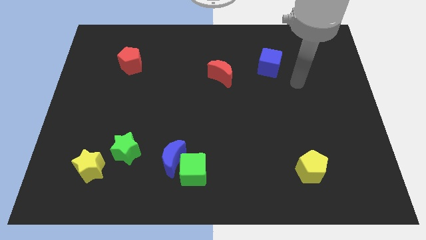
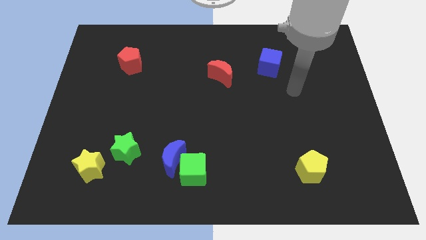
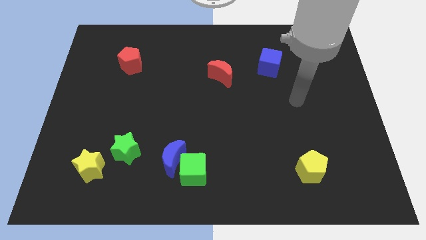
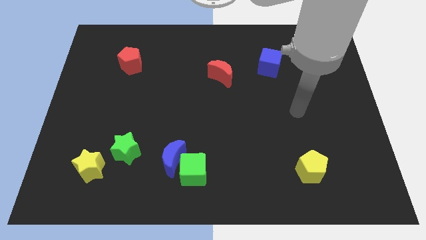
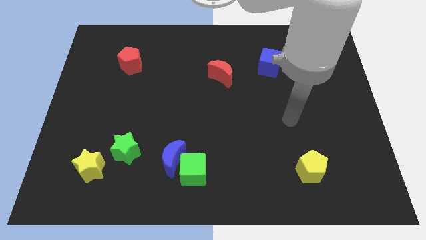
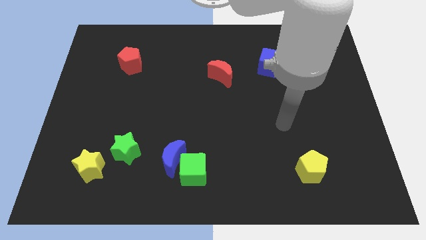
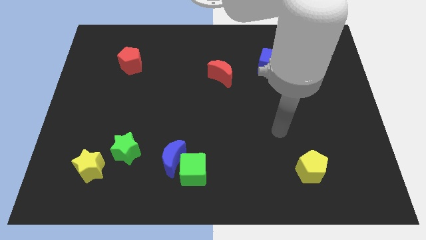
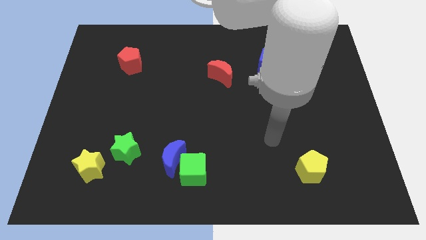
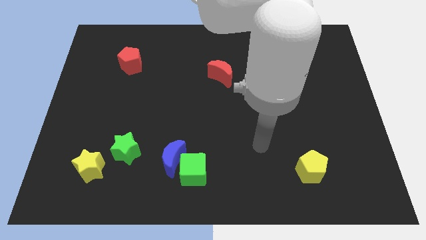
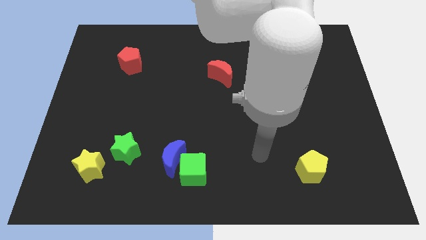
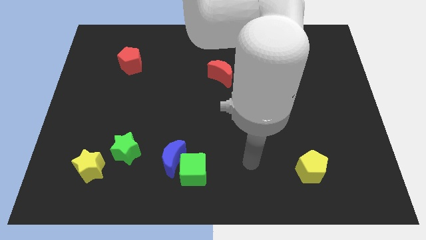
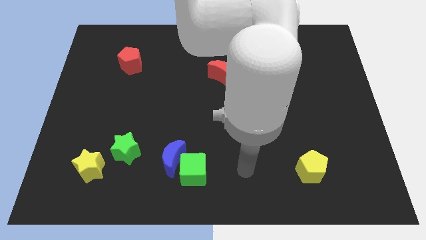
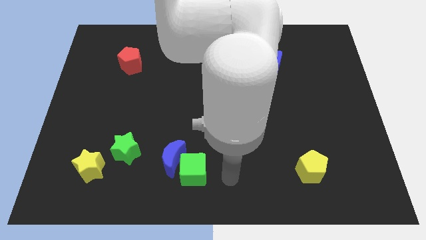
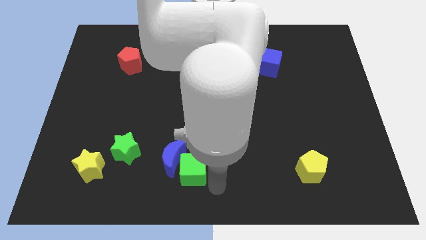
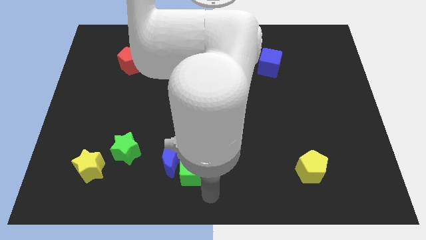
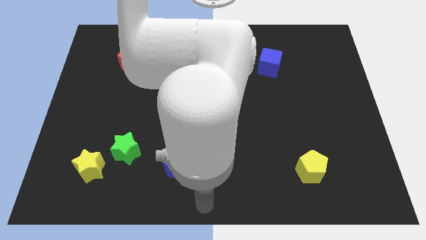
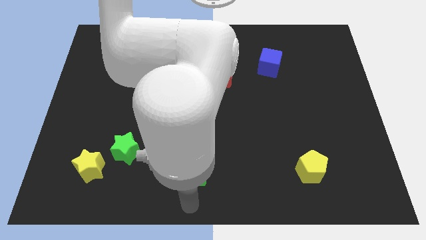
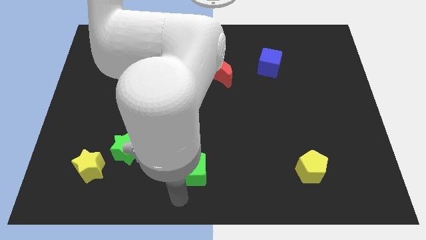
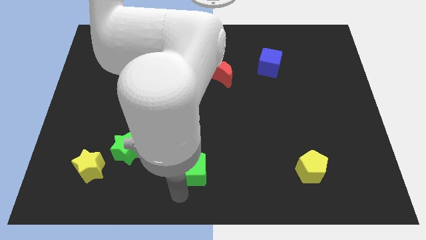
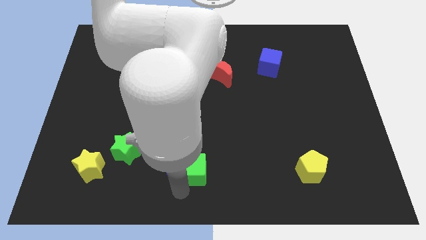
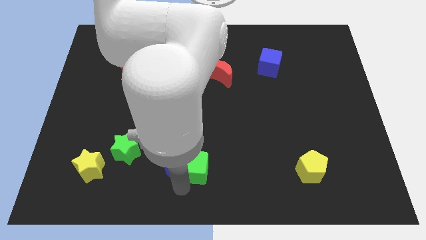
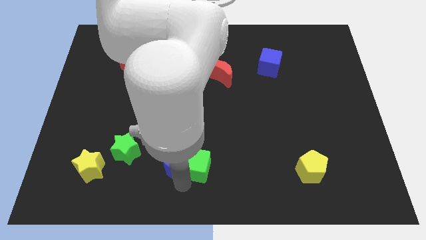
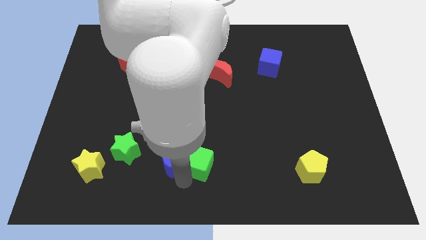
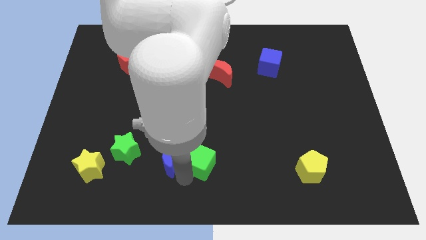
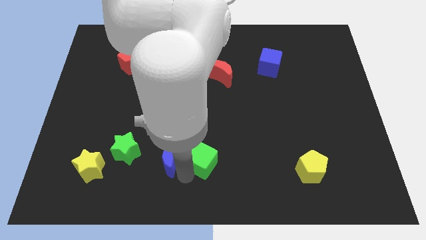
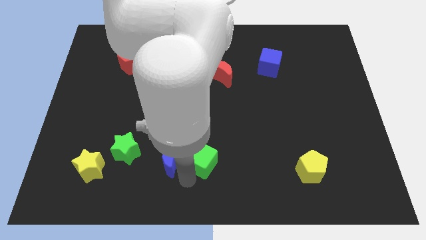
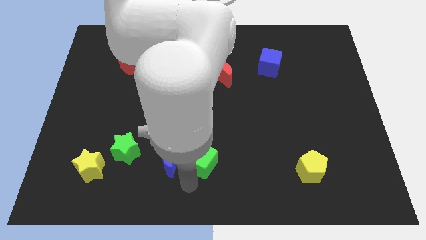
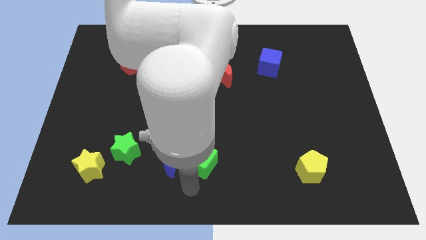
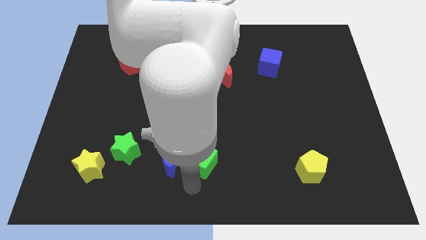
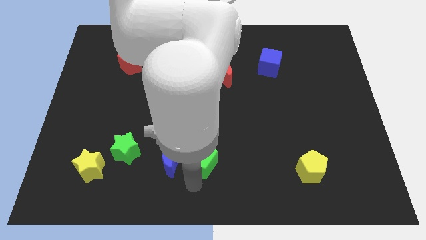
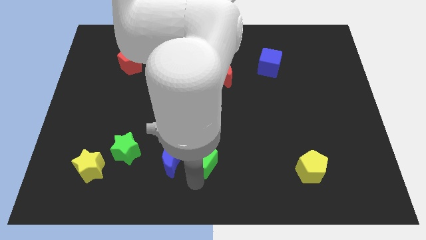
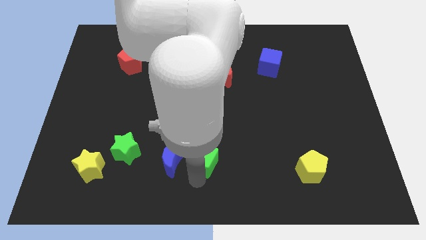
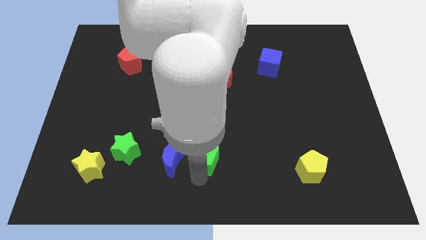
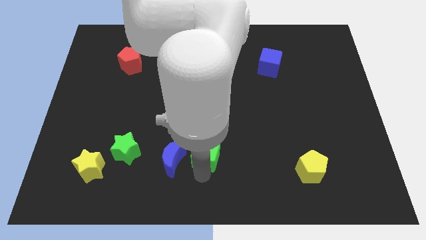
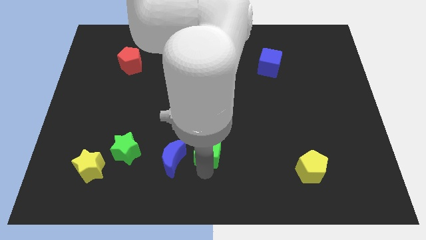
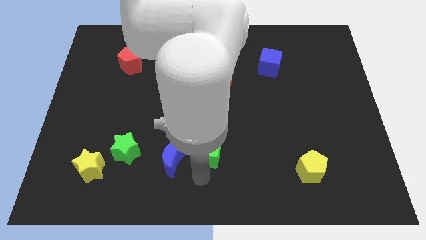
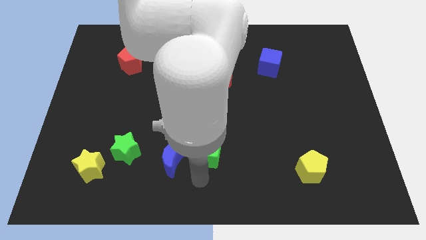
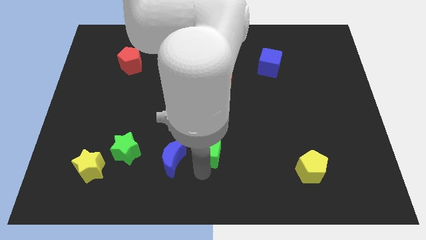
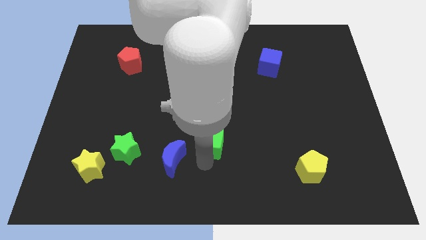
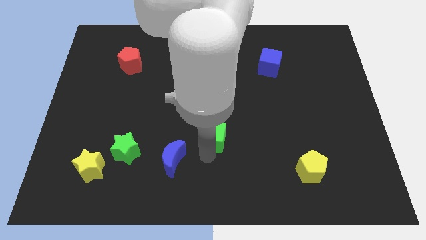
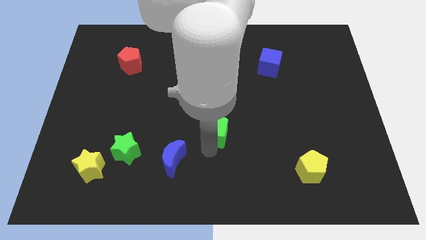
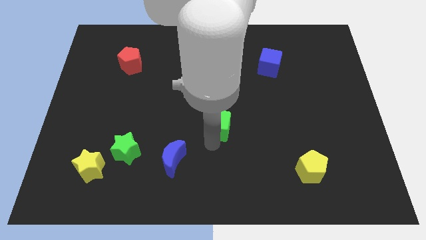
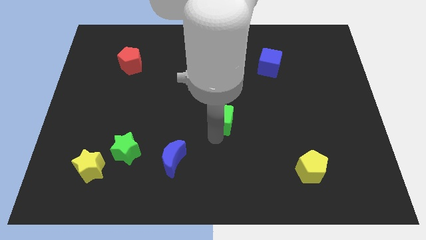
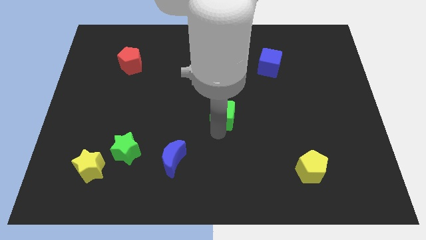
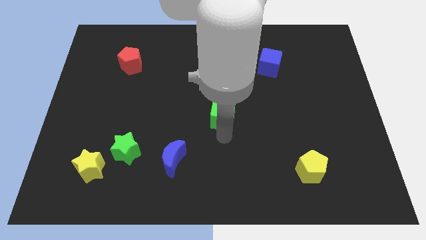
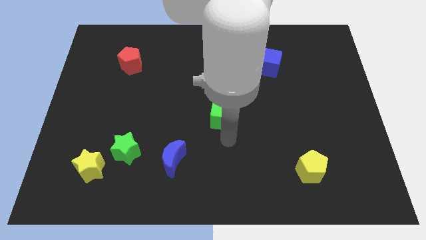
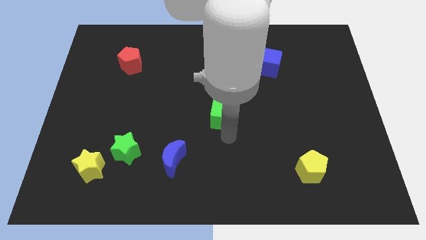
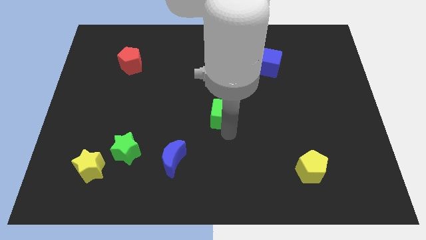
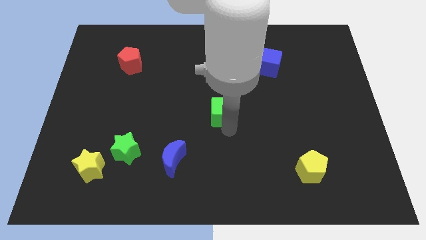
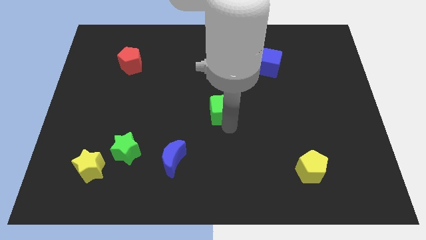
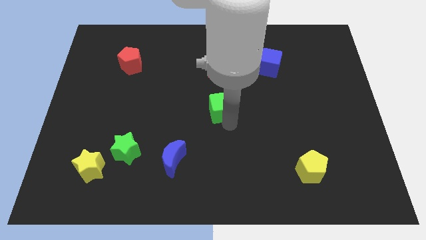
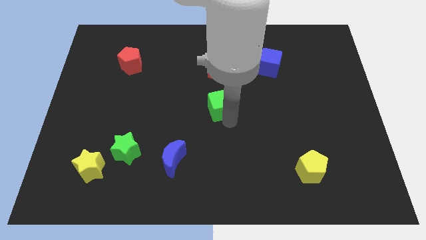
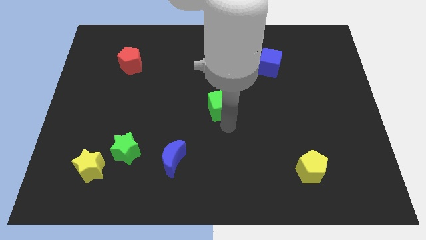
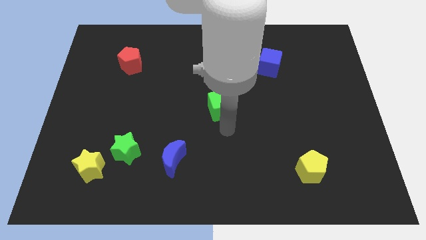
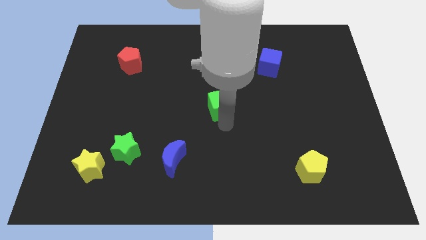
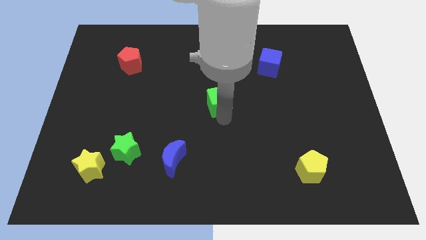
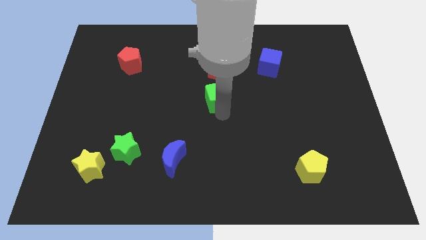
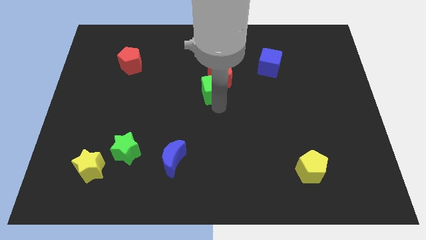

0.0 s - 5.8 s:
slide the green cube close to the red moon

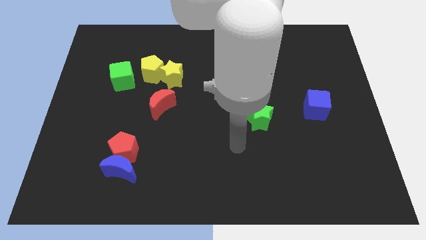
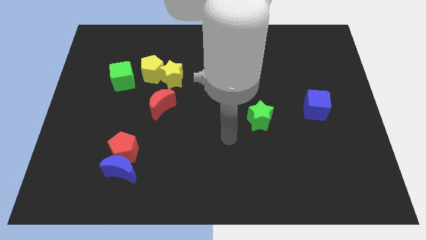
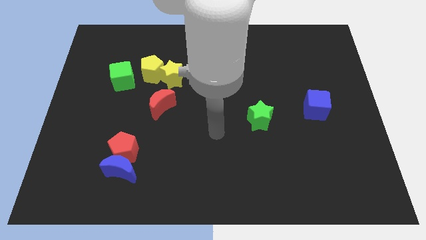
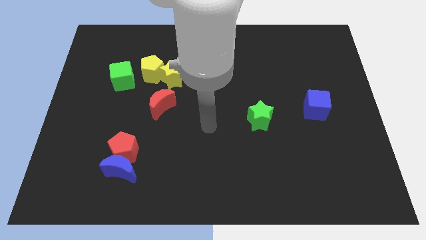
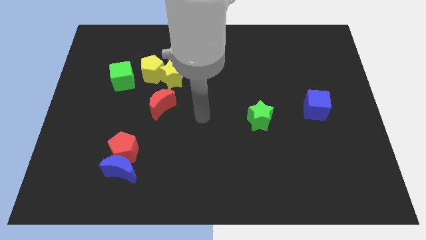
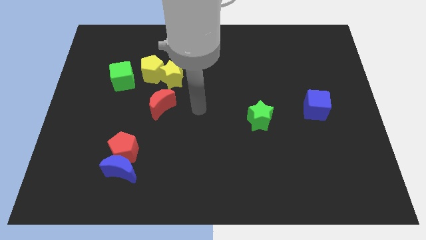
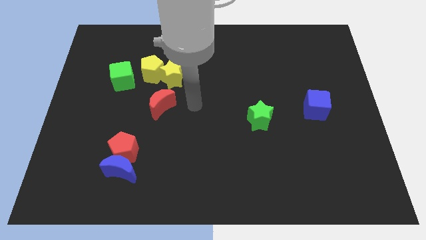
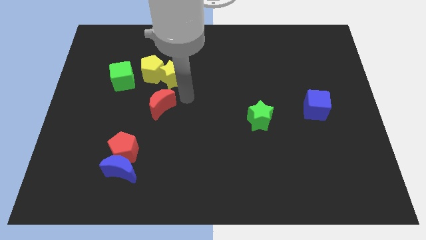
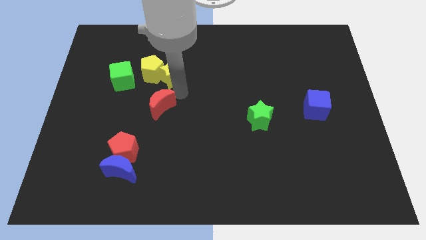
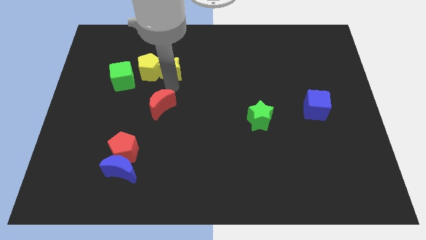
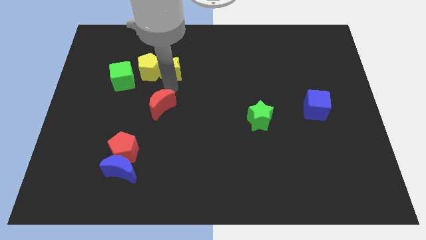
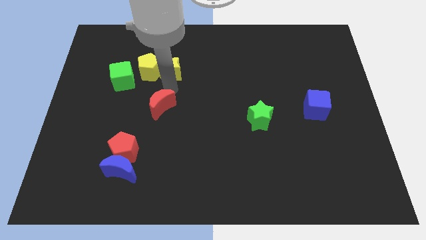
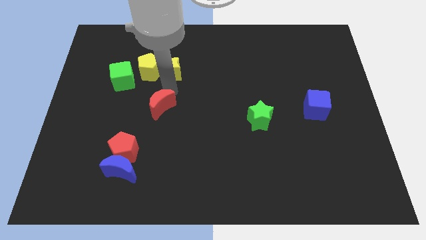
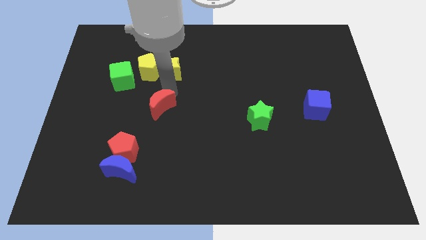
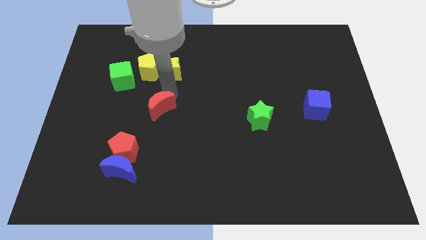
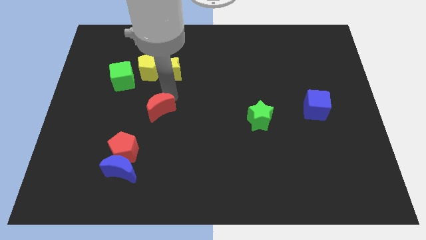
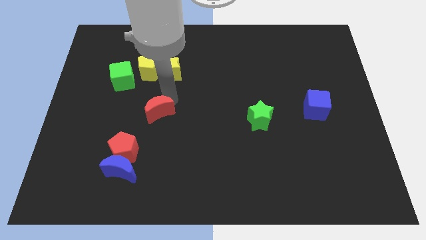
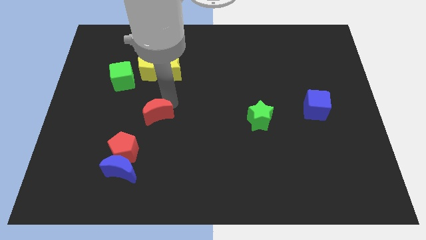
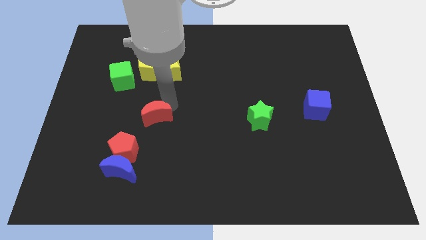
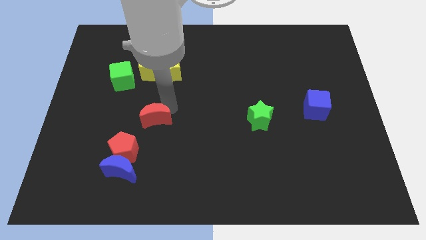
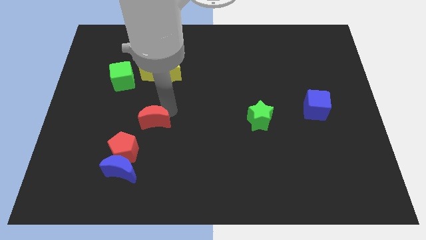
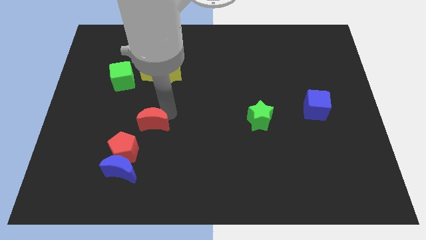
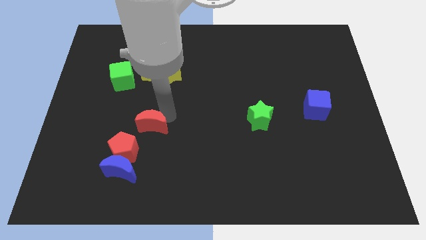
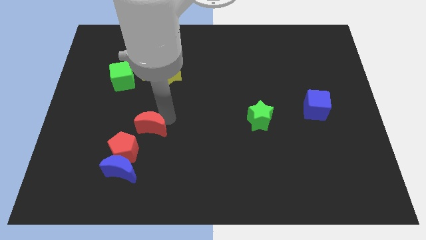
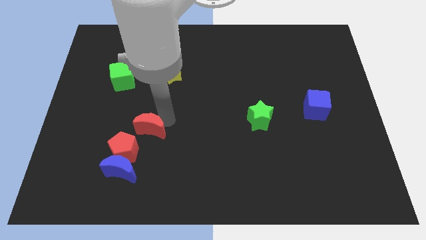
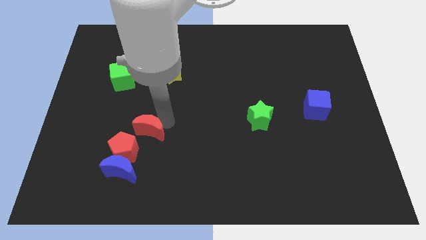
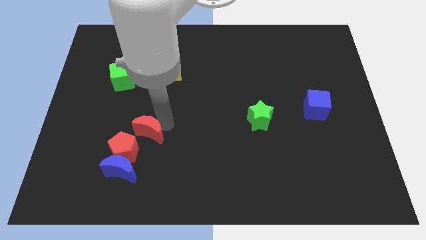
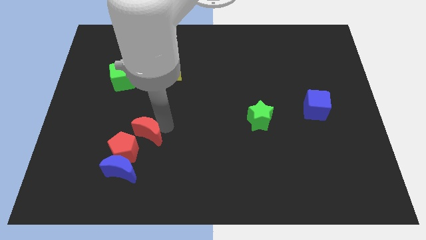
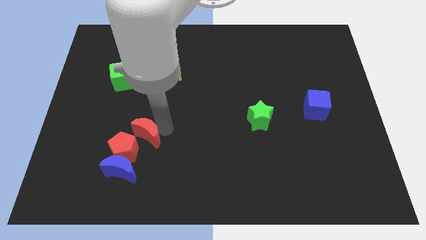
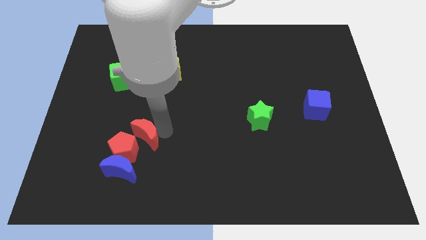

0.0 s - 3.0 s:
move the red moon close to the red pentagon
